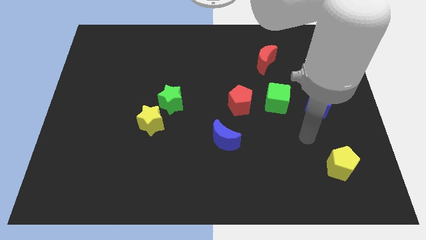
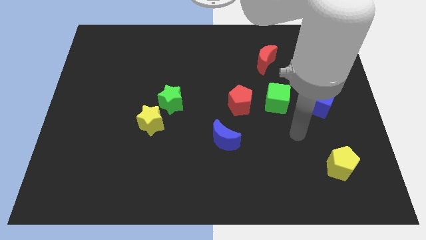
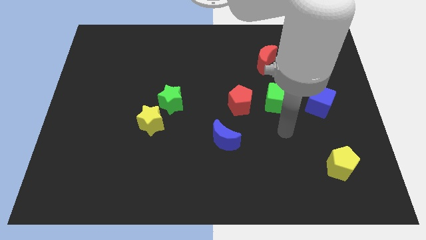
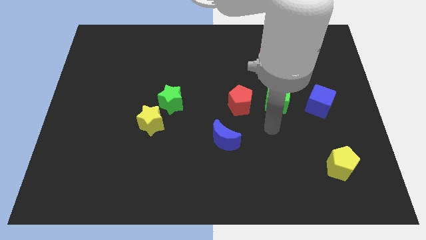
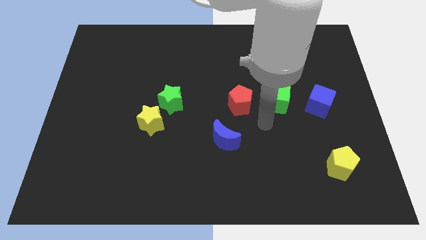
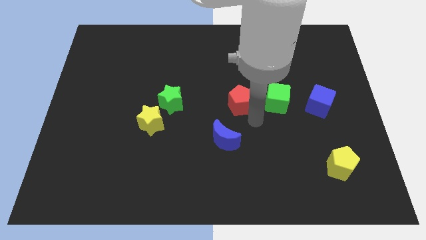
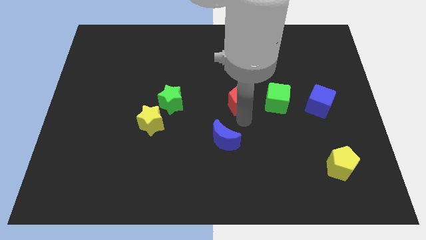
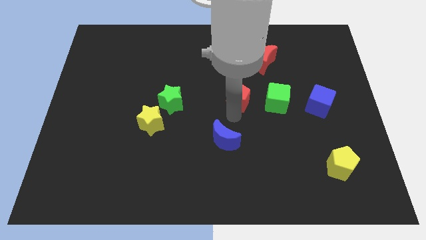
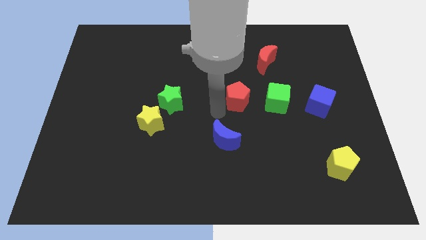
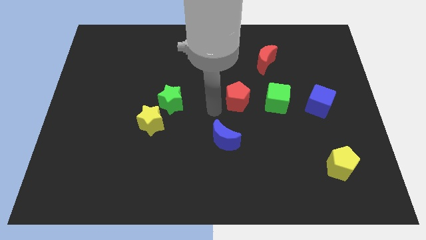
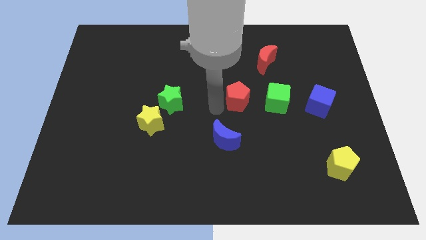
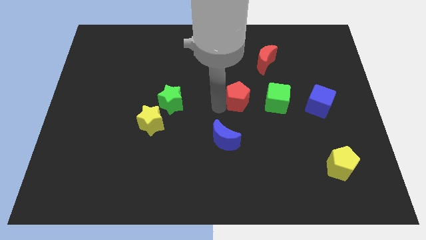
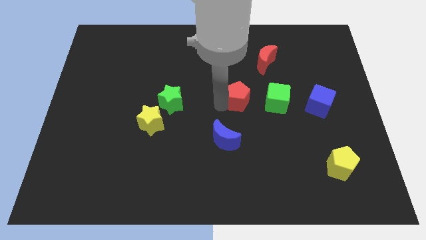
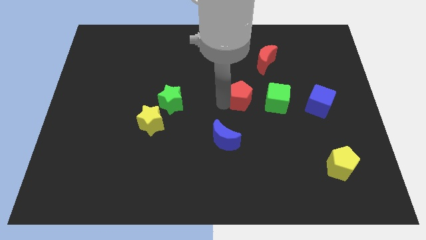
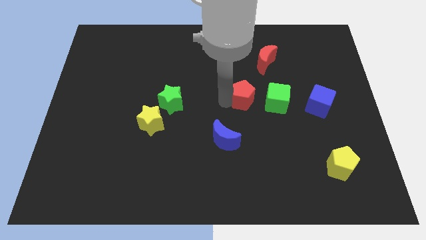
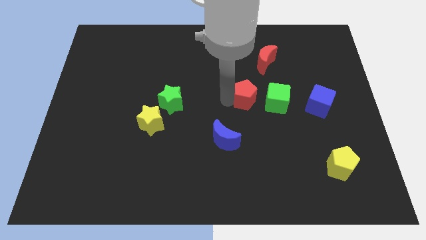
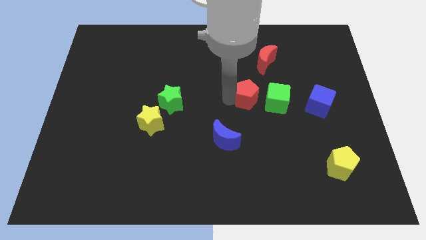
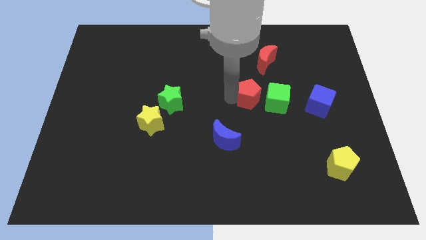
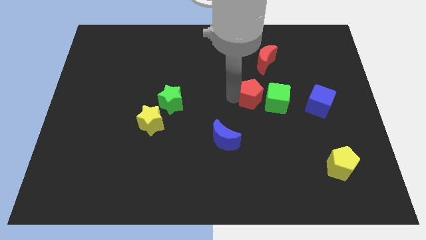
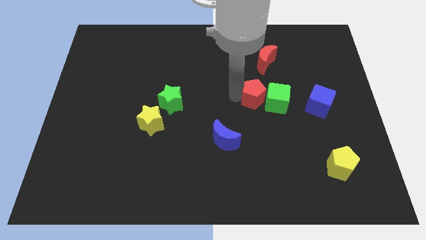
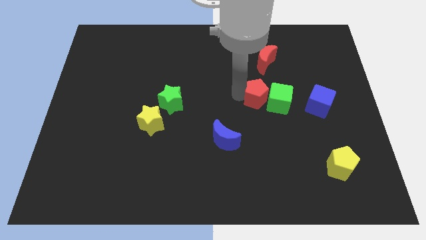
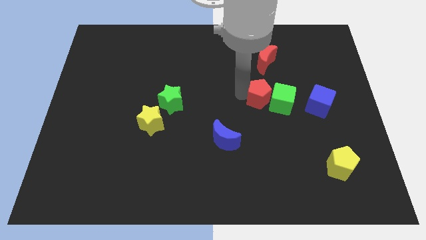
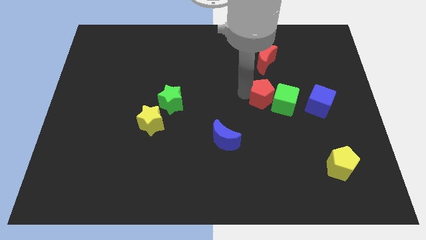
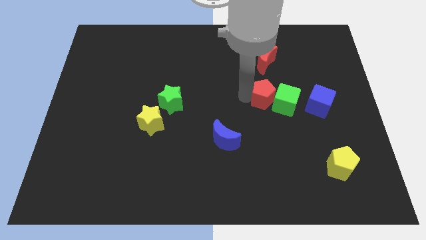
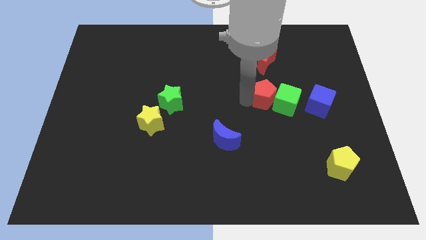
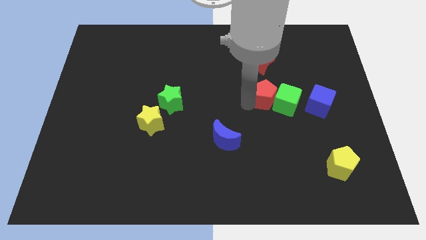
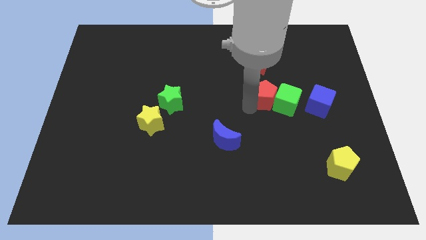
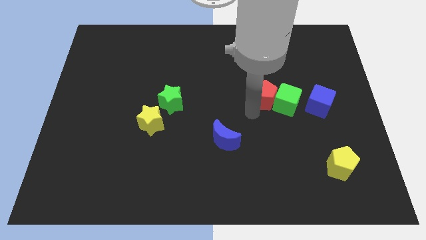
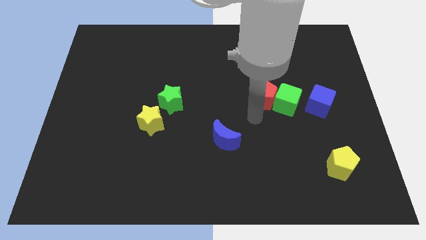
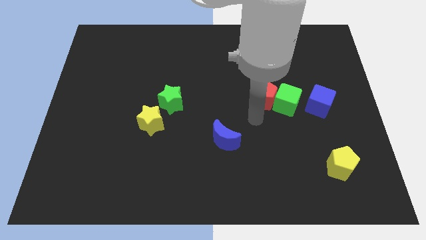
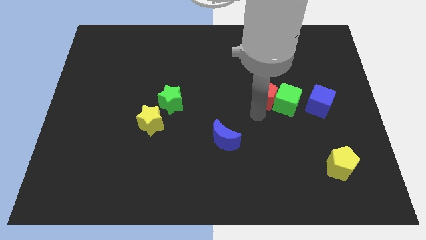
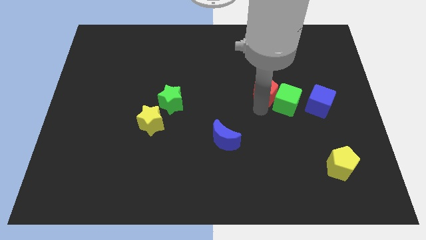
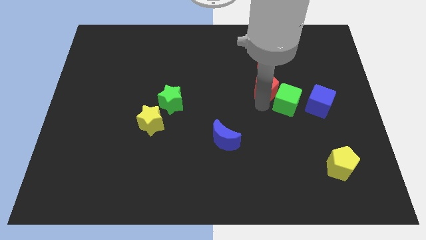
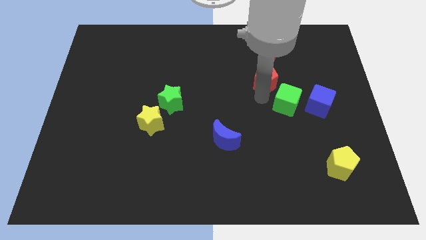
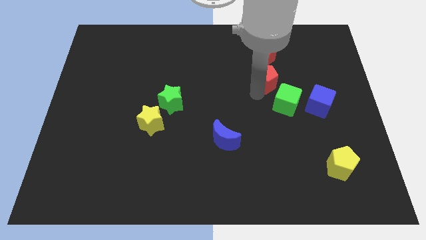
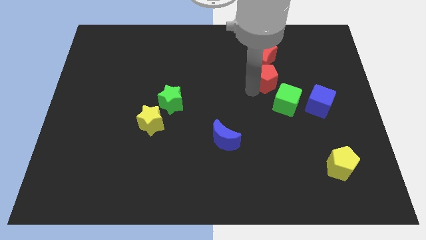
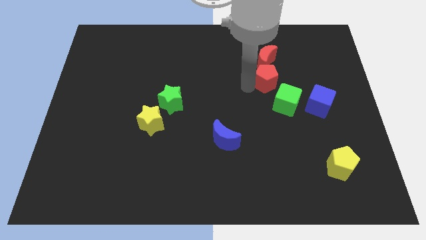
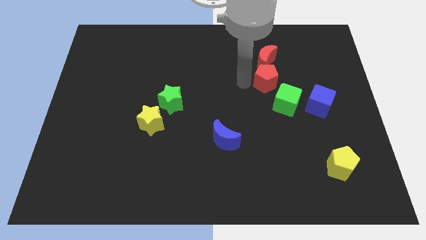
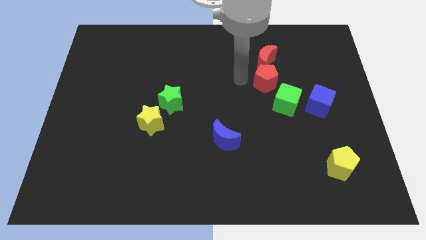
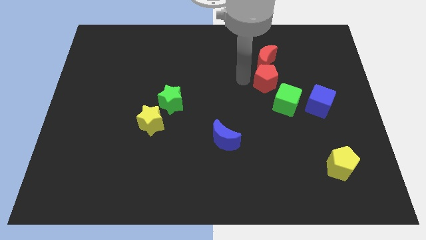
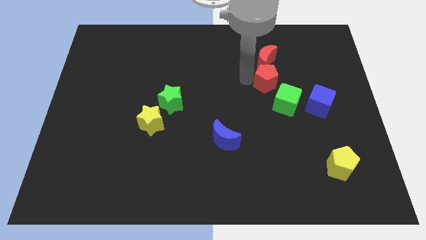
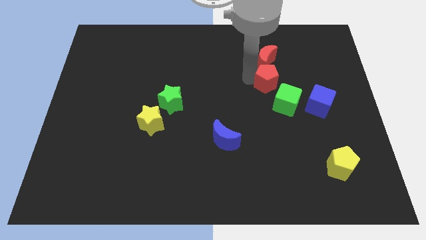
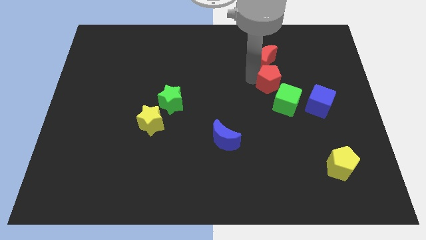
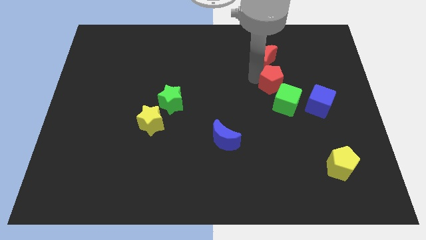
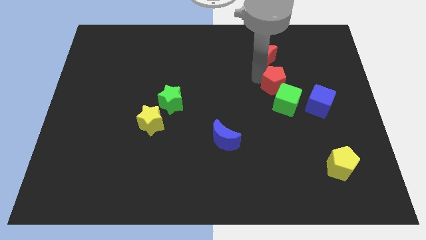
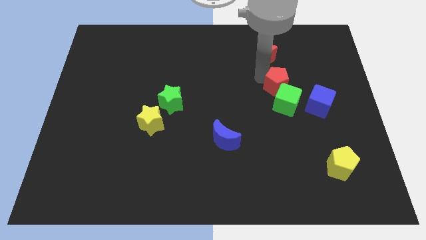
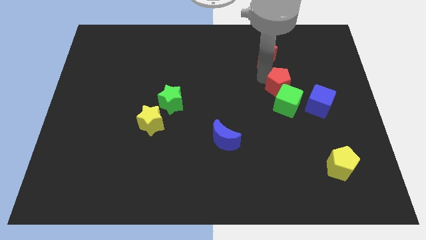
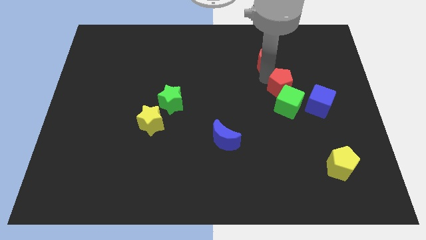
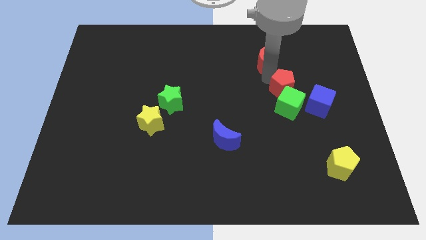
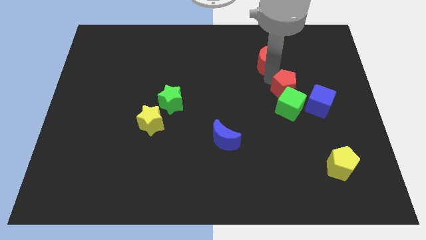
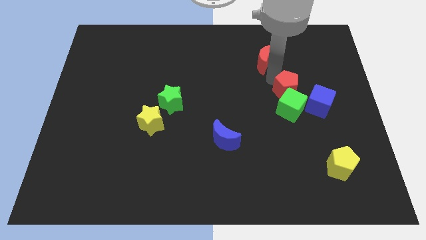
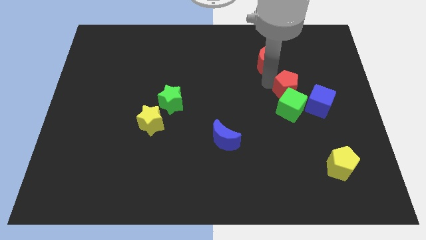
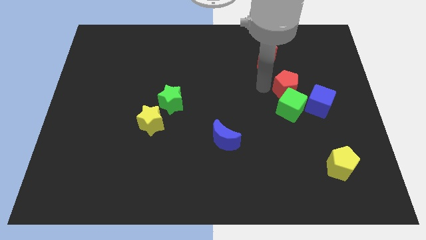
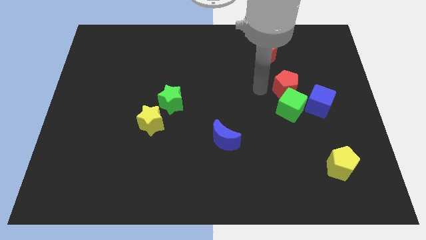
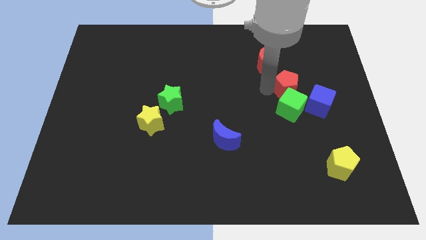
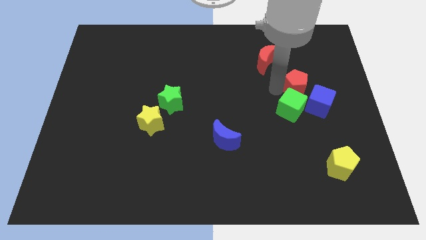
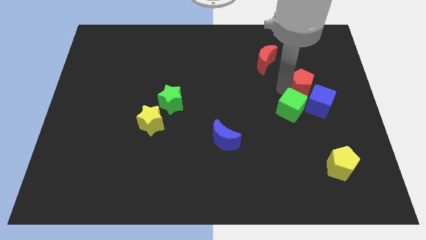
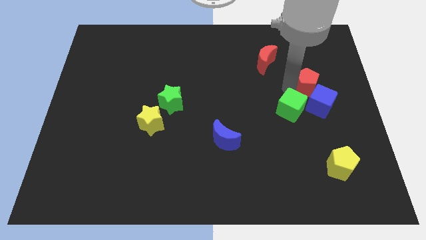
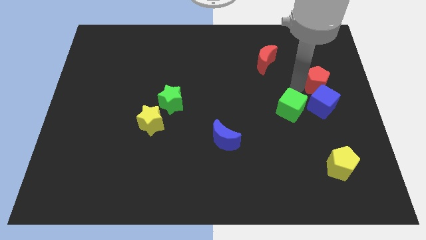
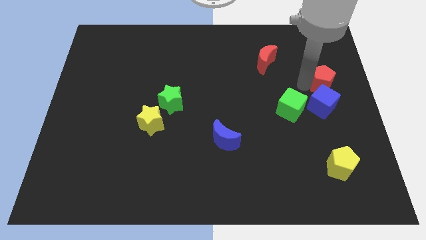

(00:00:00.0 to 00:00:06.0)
push the red pentagon to the right side of the board

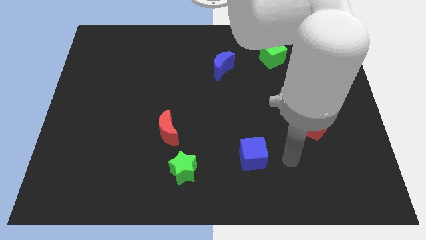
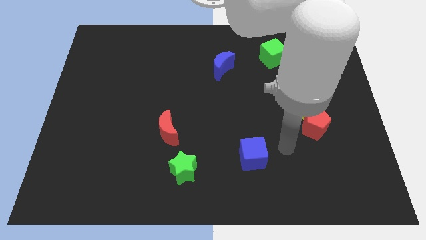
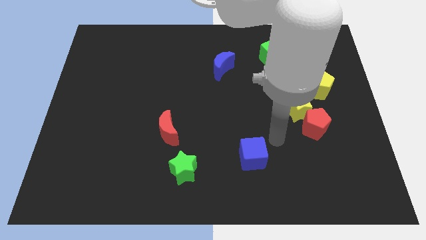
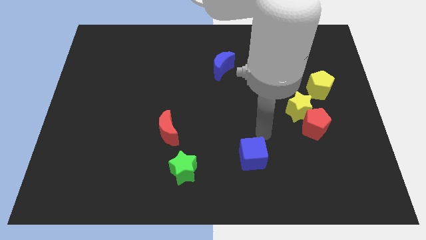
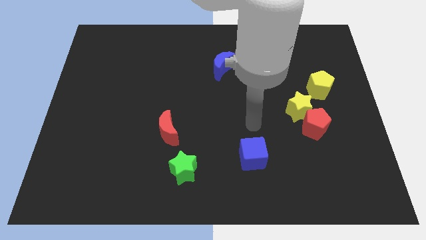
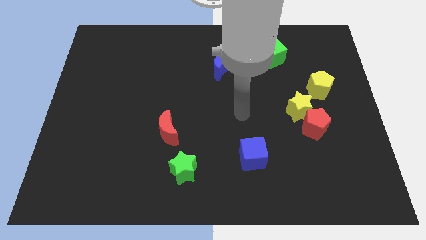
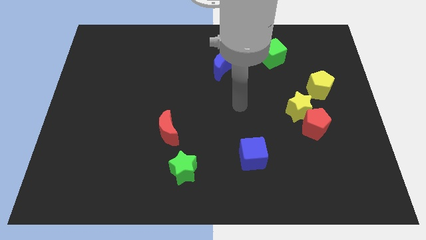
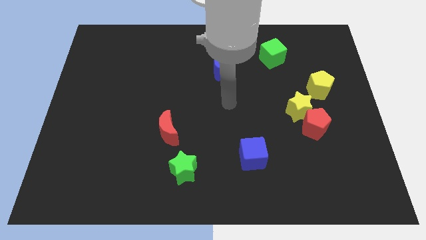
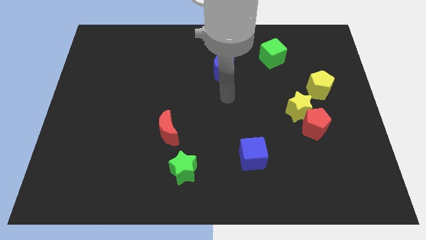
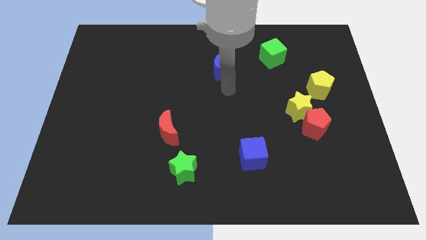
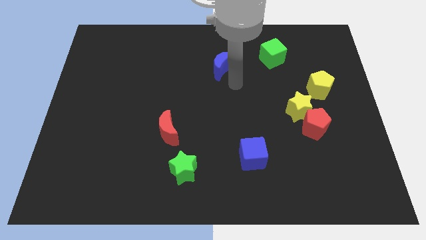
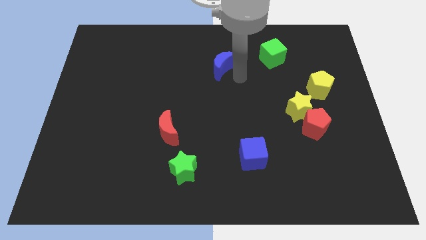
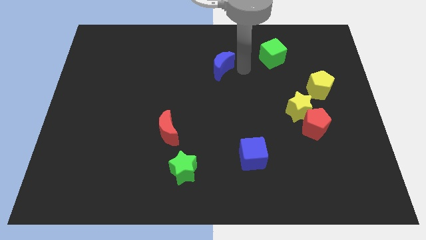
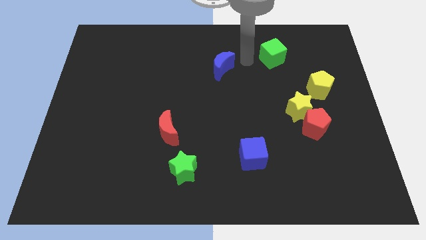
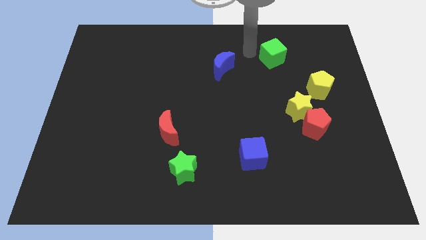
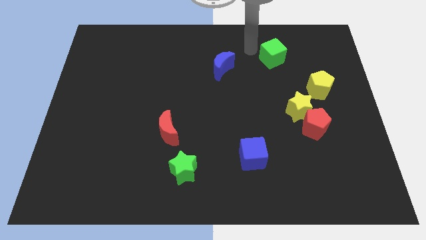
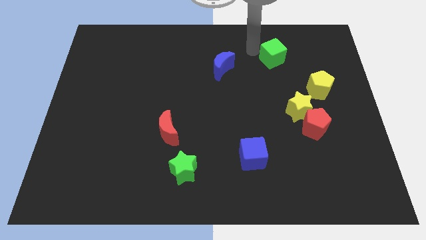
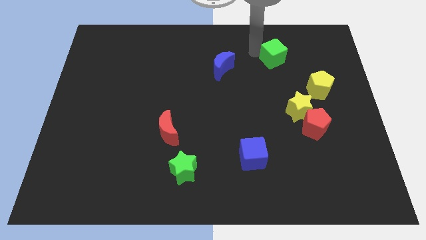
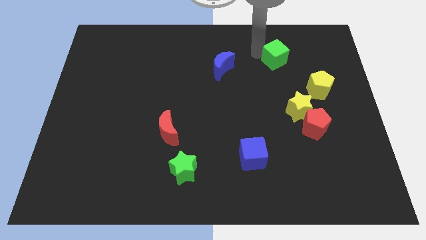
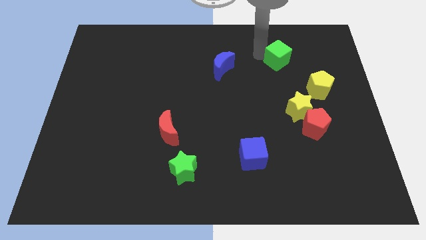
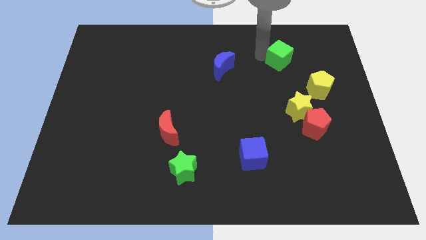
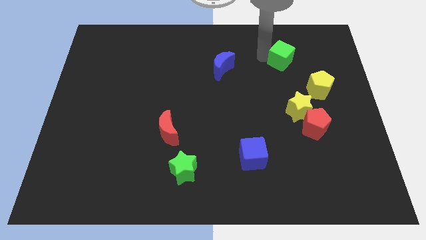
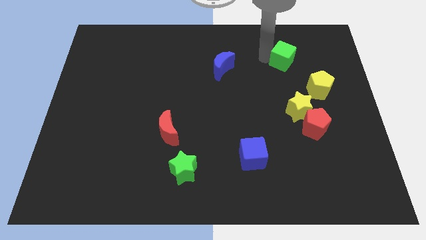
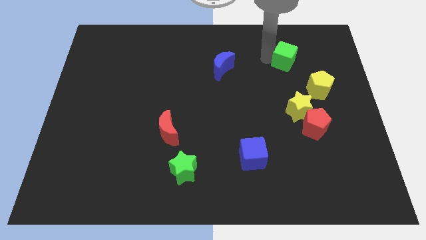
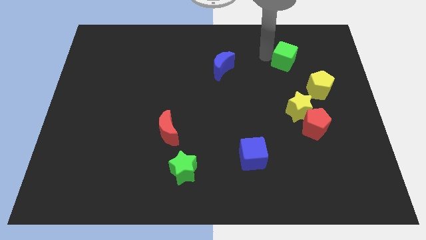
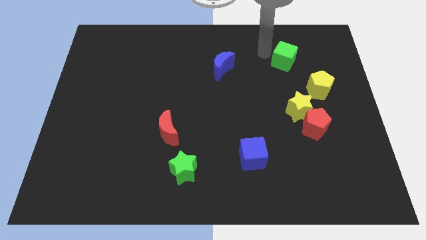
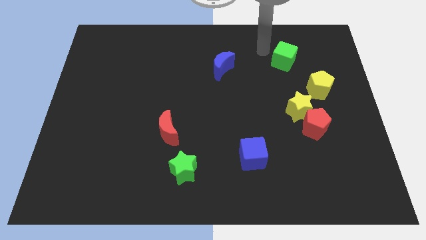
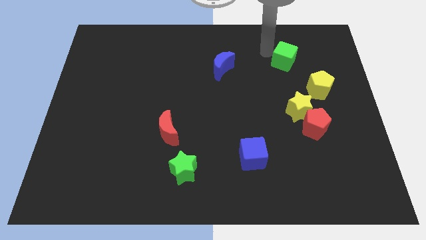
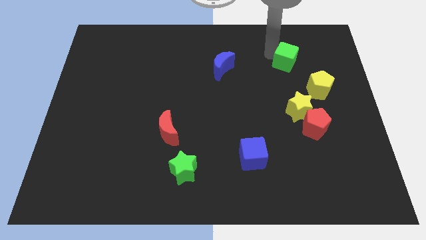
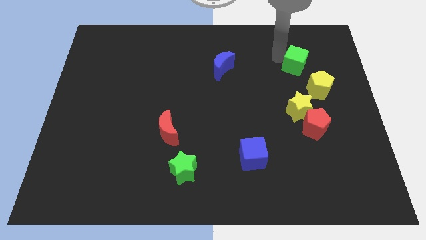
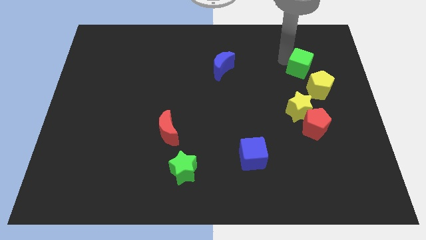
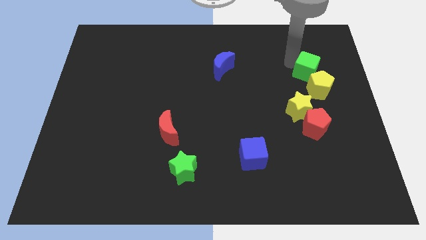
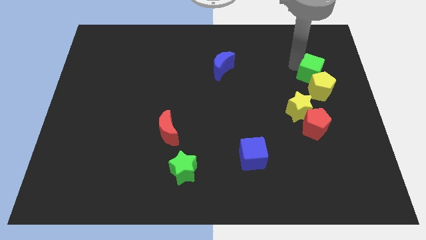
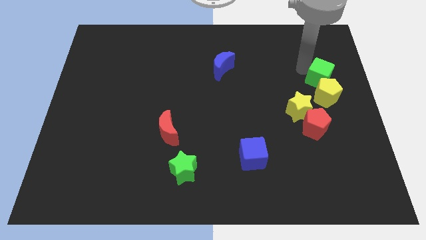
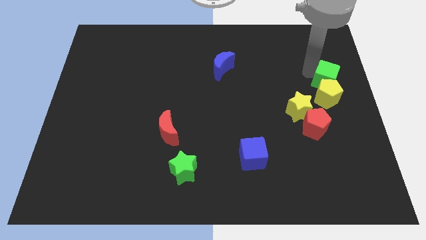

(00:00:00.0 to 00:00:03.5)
slide the green cube to the center right
